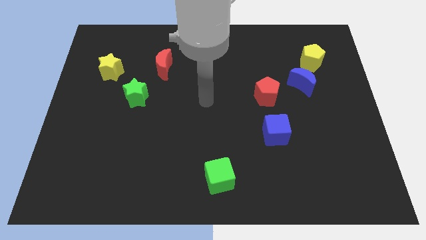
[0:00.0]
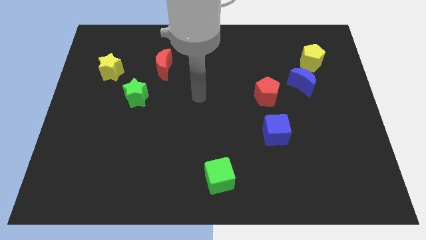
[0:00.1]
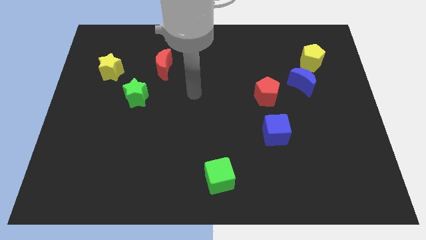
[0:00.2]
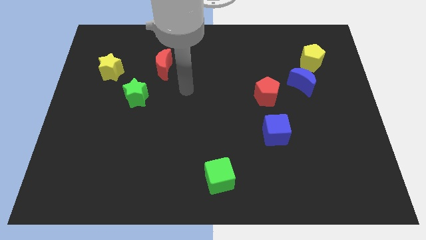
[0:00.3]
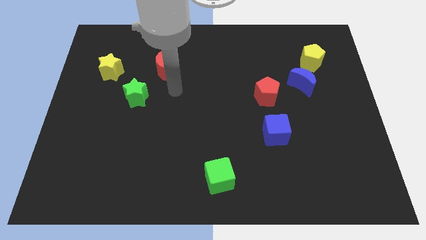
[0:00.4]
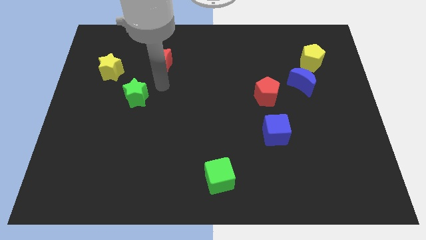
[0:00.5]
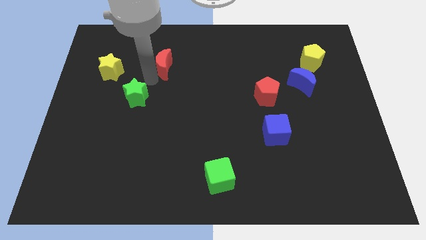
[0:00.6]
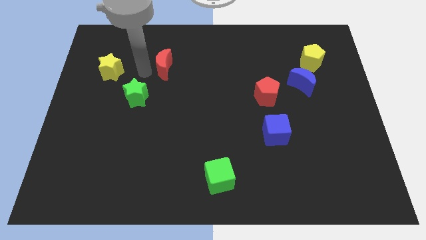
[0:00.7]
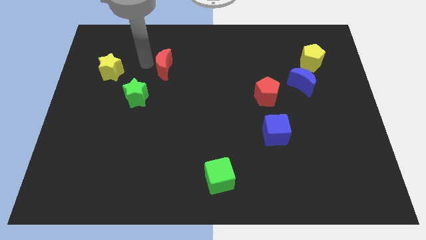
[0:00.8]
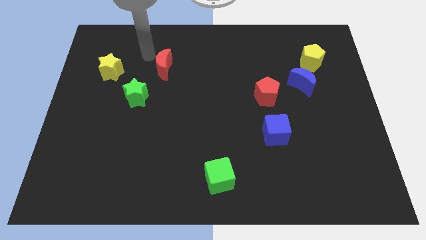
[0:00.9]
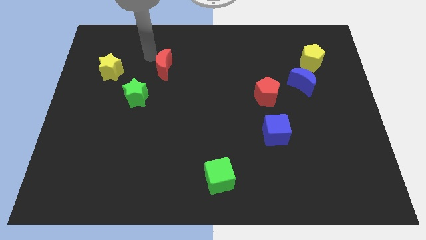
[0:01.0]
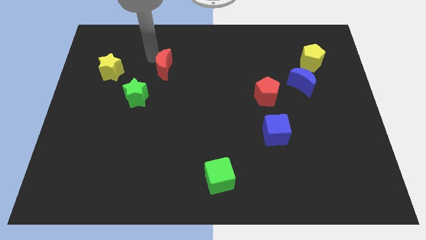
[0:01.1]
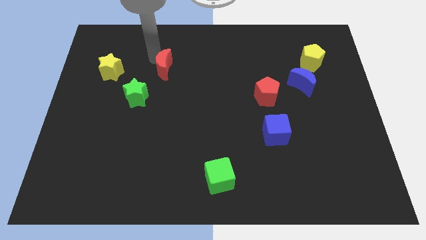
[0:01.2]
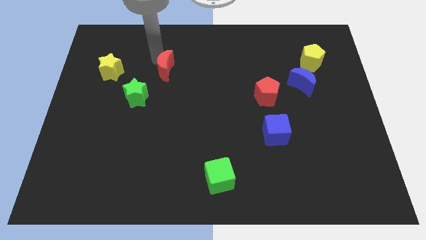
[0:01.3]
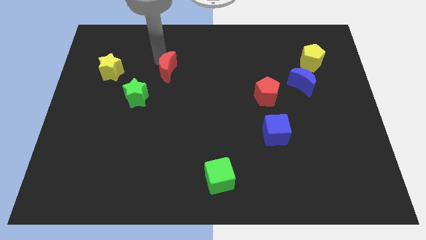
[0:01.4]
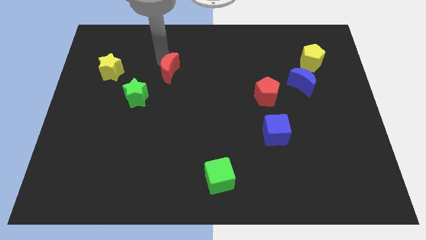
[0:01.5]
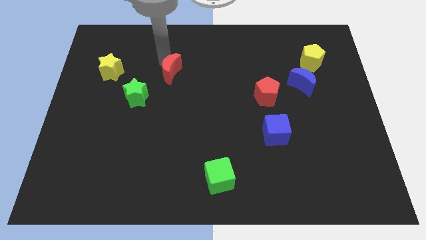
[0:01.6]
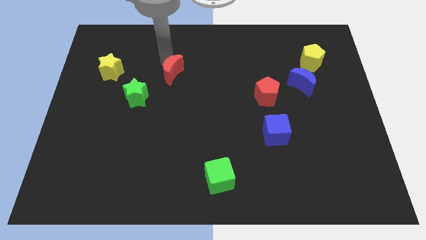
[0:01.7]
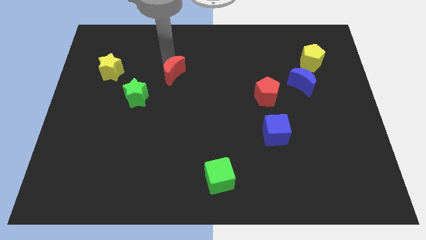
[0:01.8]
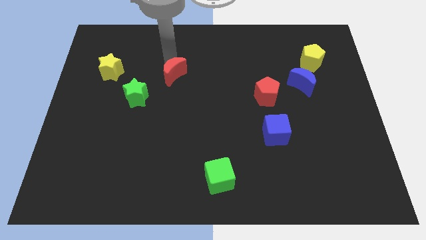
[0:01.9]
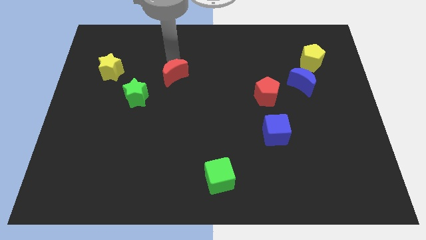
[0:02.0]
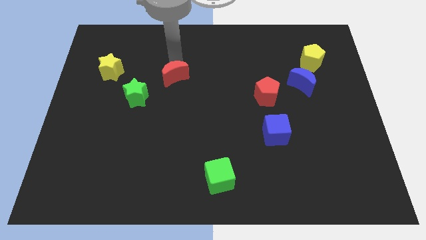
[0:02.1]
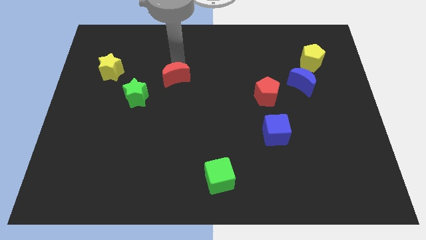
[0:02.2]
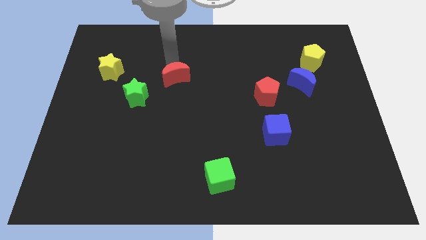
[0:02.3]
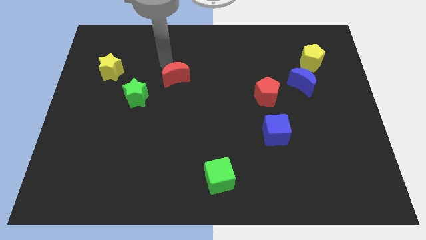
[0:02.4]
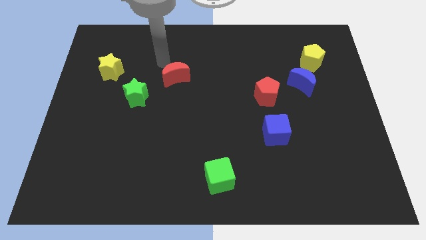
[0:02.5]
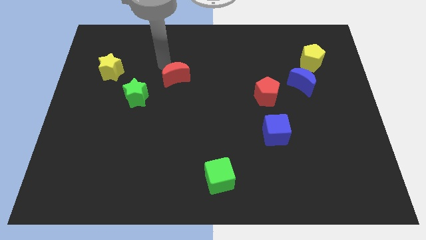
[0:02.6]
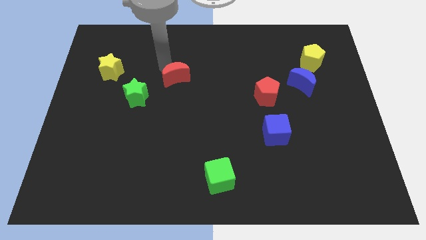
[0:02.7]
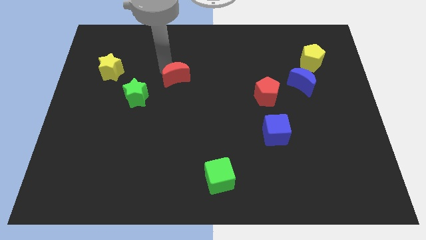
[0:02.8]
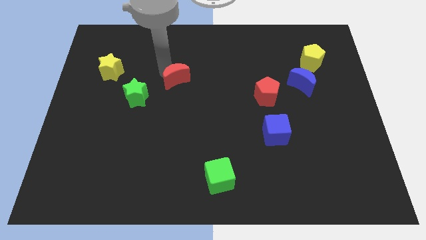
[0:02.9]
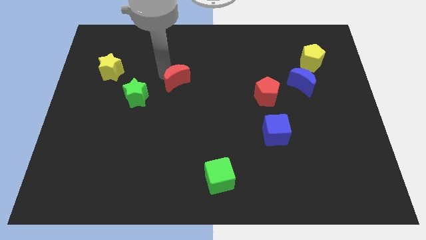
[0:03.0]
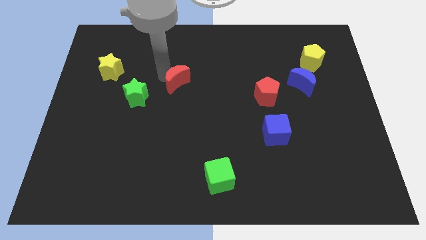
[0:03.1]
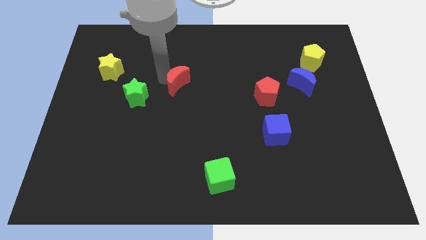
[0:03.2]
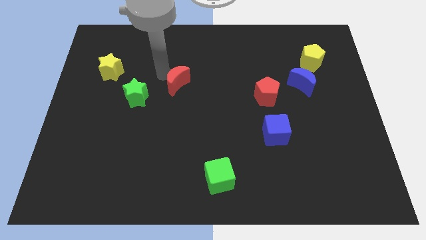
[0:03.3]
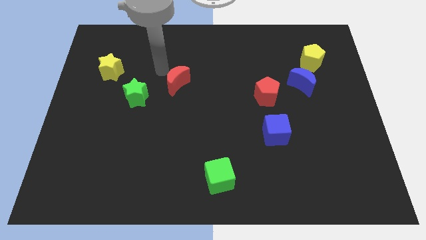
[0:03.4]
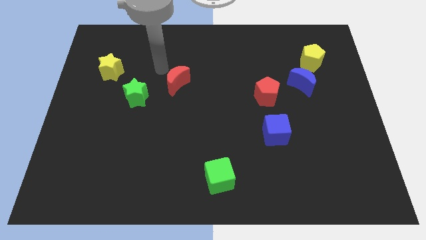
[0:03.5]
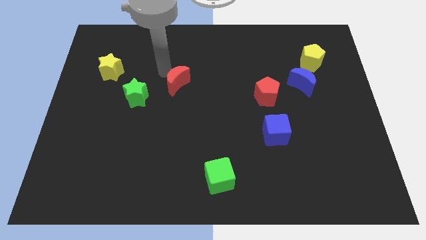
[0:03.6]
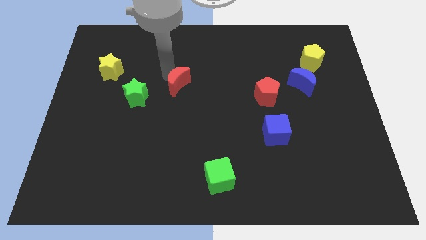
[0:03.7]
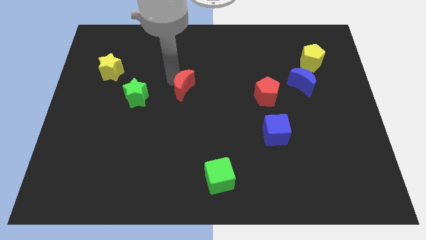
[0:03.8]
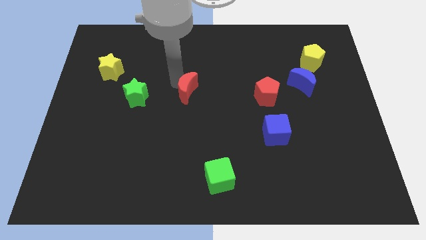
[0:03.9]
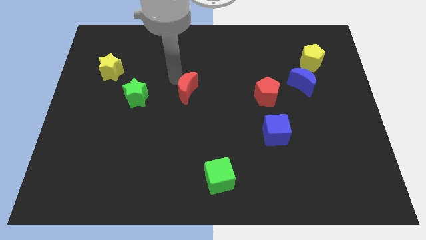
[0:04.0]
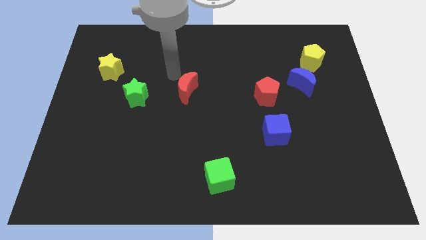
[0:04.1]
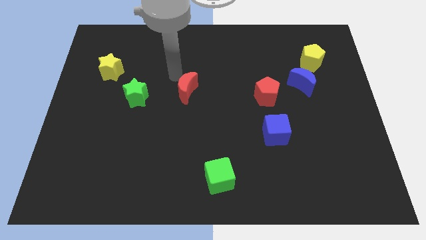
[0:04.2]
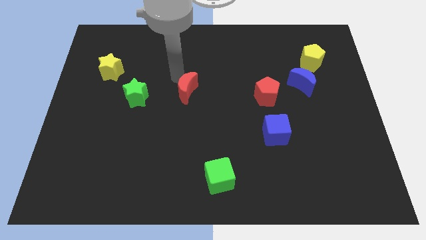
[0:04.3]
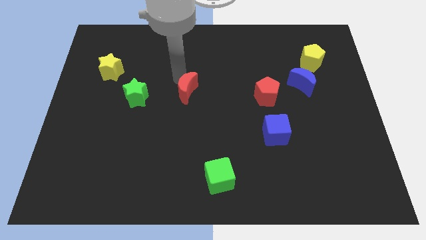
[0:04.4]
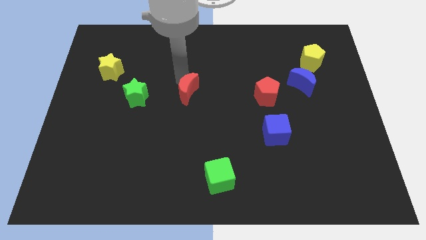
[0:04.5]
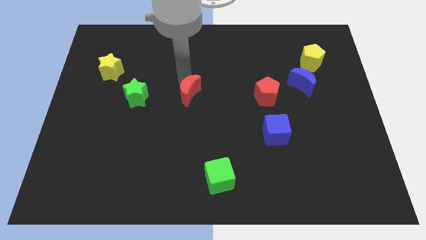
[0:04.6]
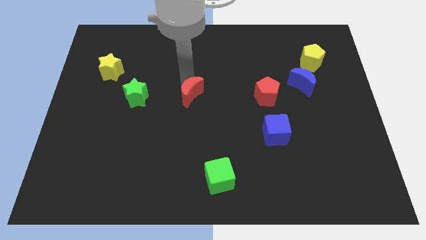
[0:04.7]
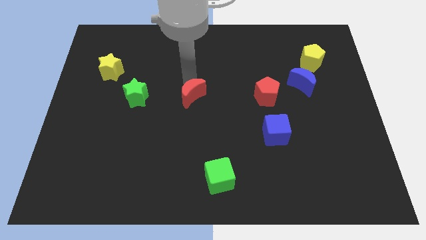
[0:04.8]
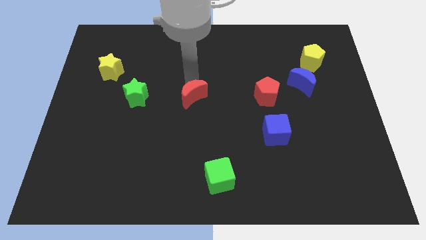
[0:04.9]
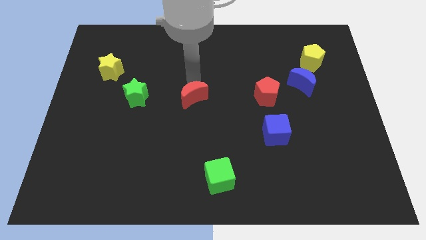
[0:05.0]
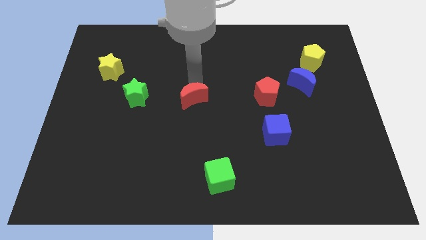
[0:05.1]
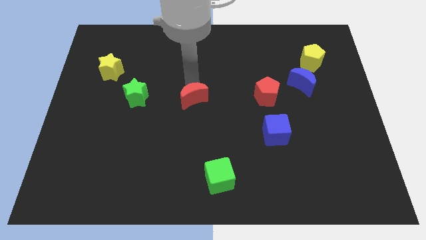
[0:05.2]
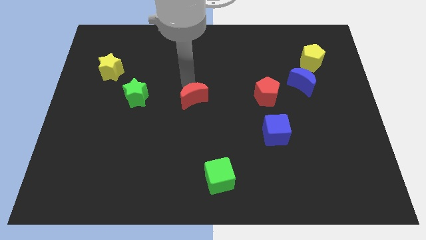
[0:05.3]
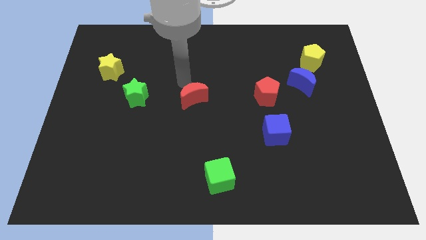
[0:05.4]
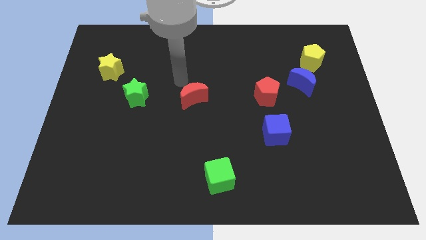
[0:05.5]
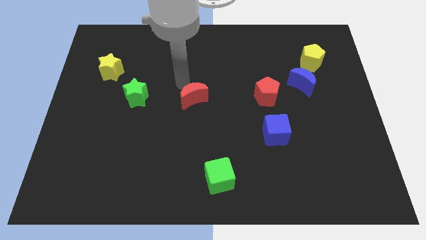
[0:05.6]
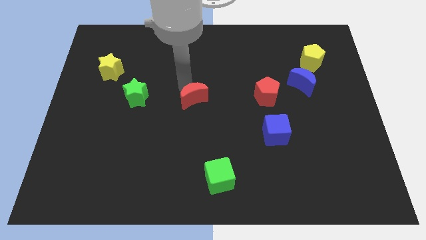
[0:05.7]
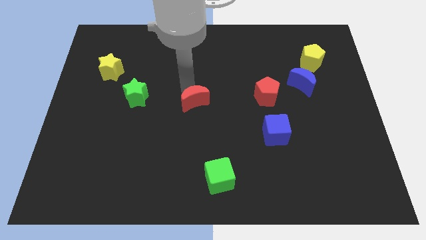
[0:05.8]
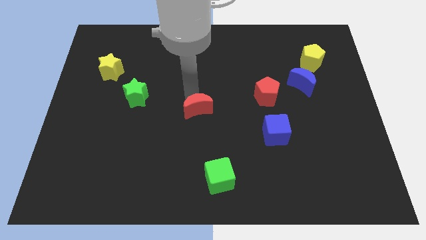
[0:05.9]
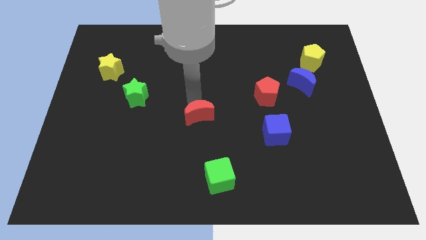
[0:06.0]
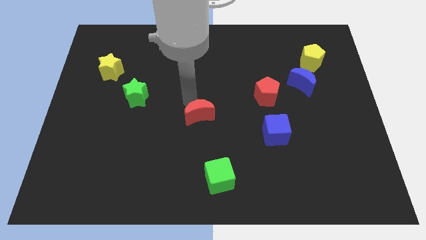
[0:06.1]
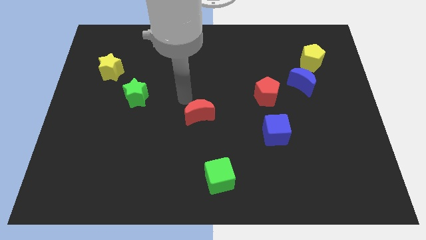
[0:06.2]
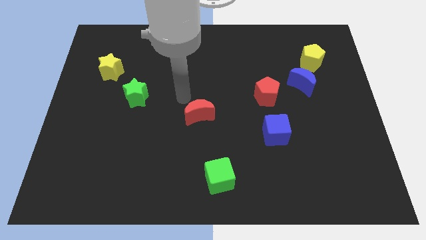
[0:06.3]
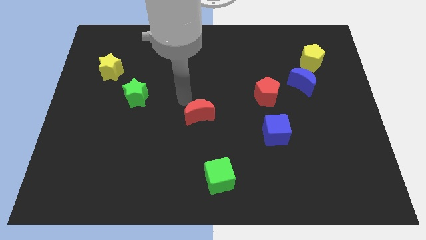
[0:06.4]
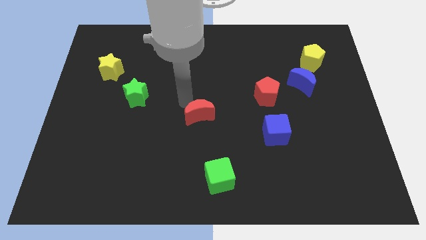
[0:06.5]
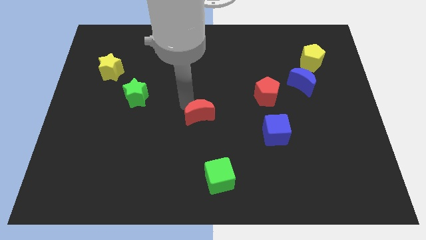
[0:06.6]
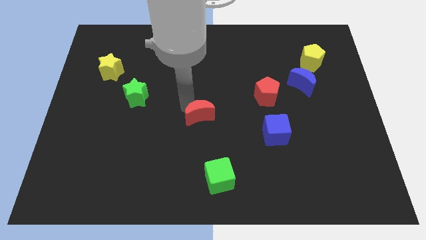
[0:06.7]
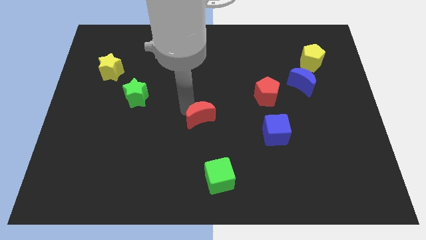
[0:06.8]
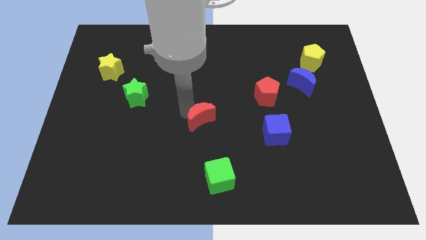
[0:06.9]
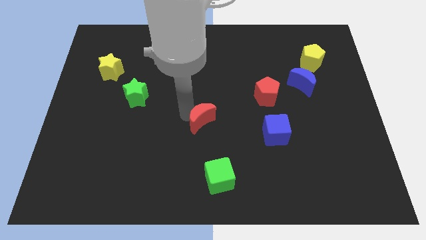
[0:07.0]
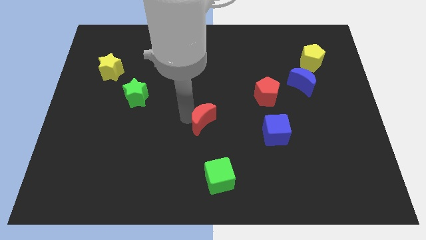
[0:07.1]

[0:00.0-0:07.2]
slide the red moon above the green cube

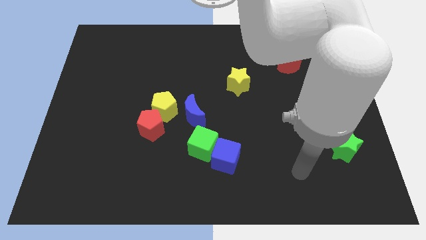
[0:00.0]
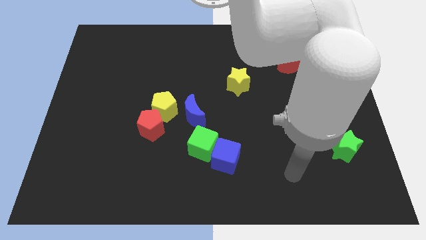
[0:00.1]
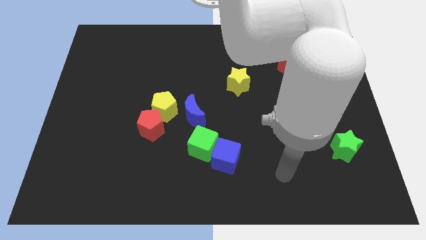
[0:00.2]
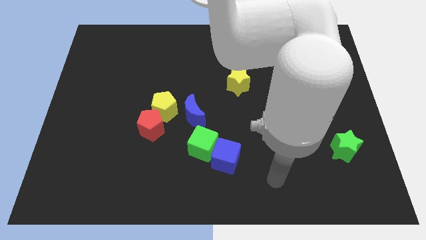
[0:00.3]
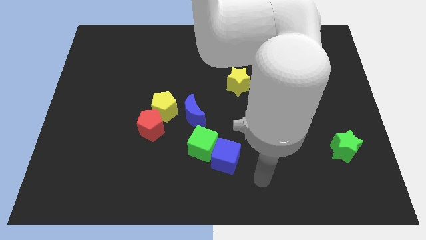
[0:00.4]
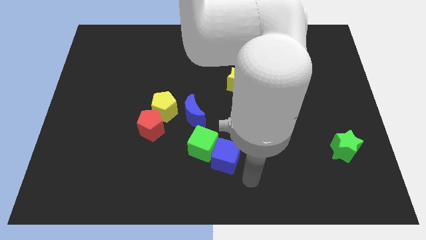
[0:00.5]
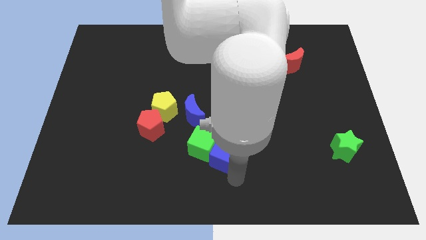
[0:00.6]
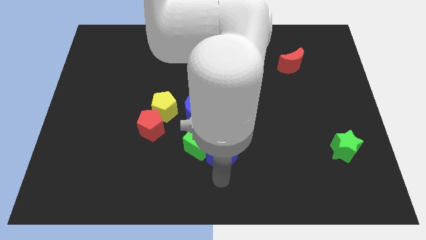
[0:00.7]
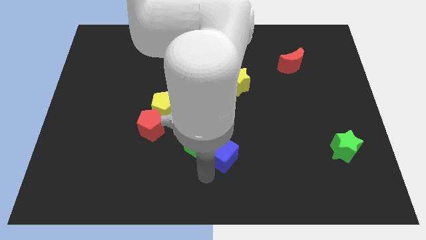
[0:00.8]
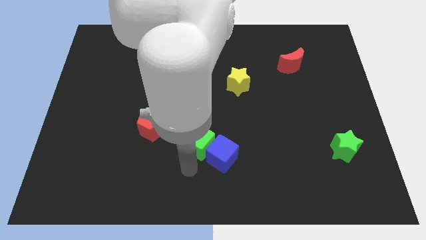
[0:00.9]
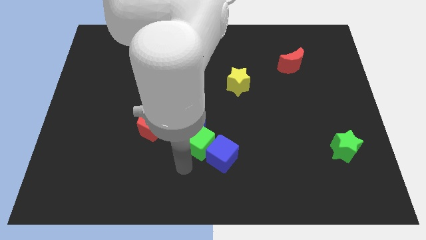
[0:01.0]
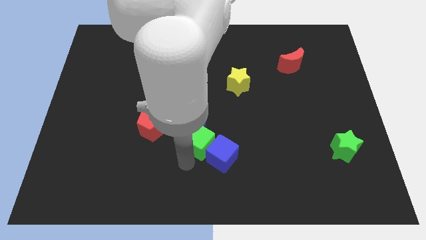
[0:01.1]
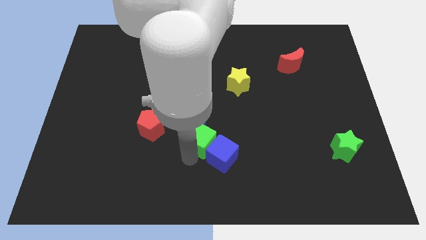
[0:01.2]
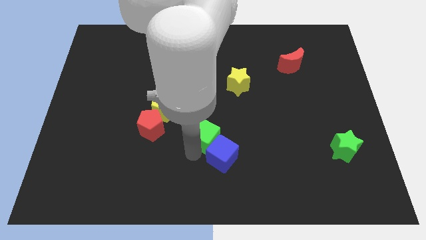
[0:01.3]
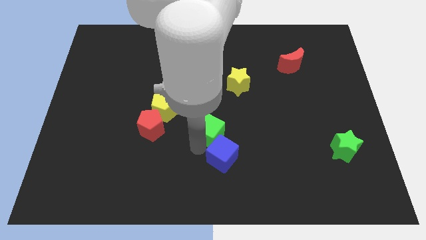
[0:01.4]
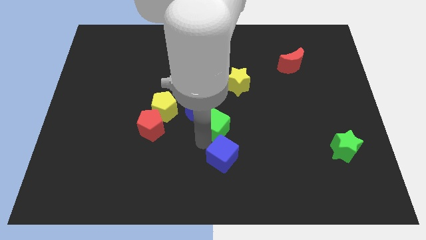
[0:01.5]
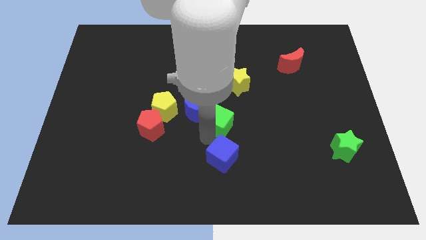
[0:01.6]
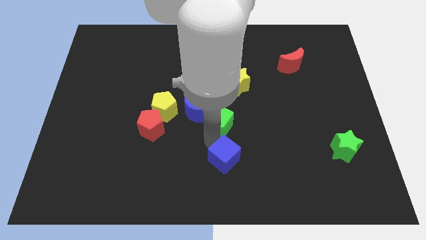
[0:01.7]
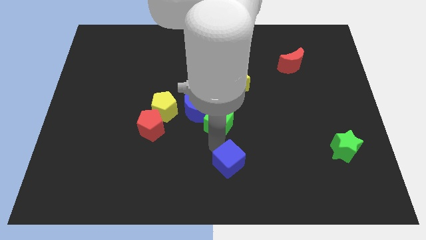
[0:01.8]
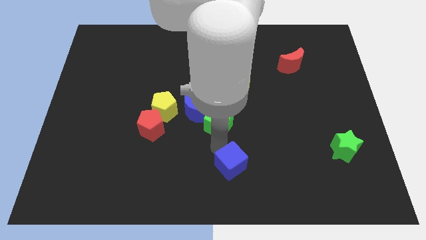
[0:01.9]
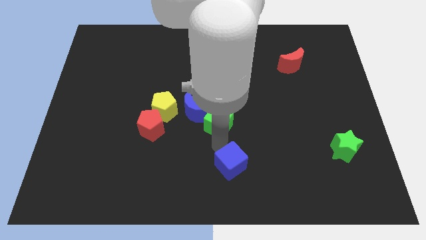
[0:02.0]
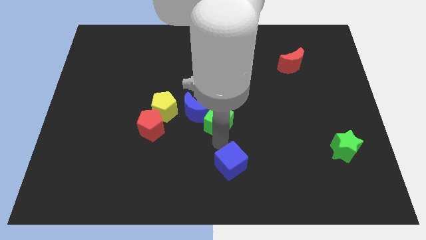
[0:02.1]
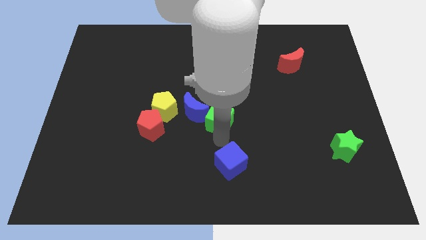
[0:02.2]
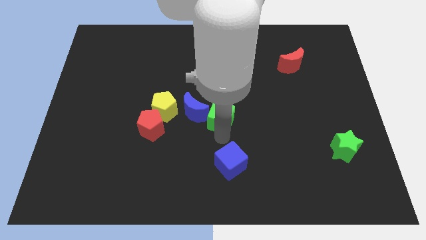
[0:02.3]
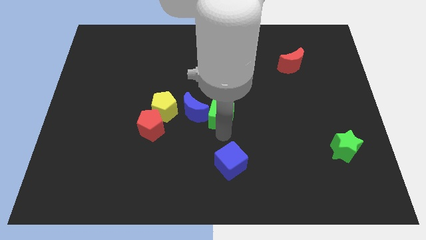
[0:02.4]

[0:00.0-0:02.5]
push the green cube diagonally down and to the left of the yellow star
